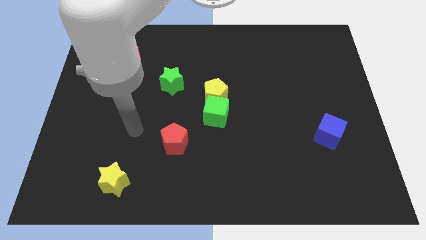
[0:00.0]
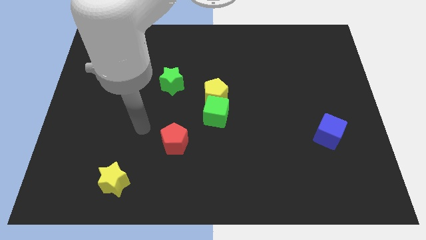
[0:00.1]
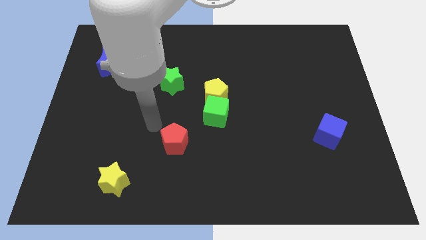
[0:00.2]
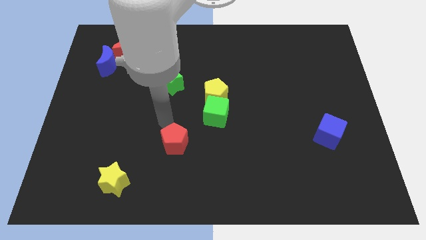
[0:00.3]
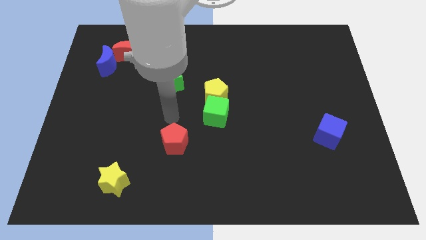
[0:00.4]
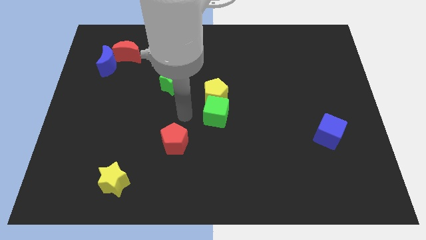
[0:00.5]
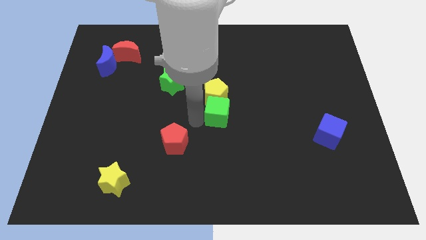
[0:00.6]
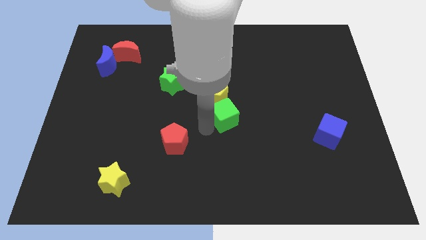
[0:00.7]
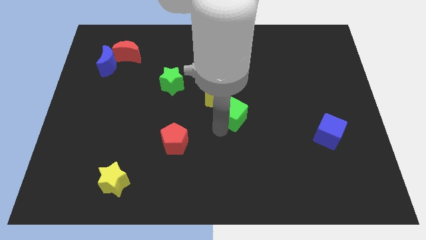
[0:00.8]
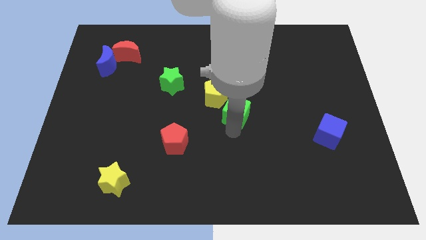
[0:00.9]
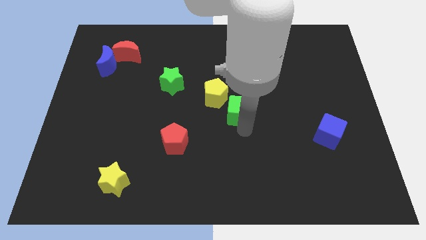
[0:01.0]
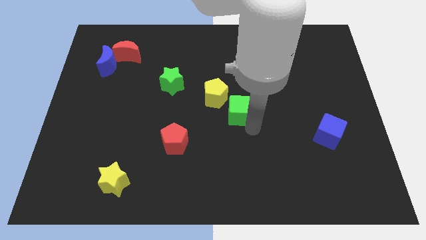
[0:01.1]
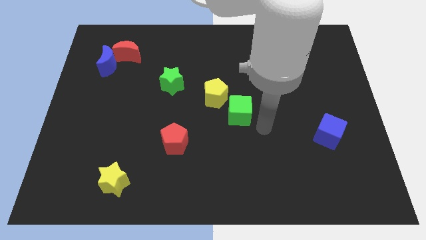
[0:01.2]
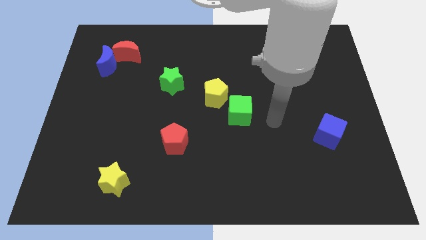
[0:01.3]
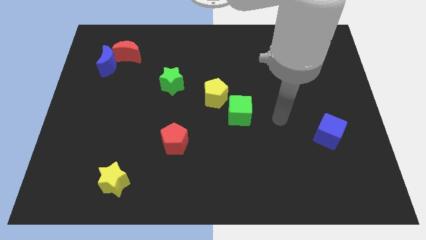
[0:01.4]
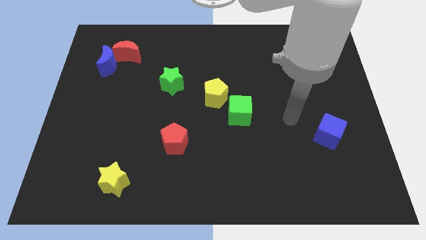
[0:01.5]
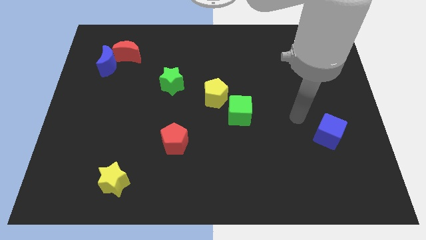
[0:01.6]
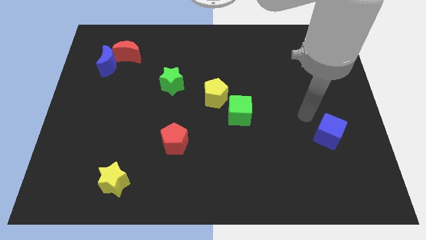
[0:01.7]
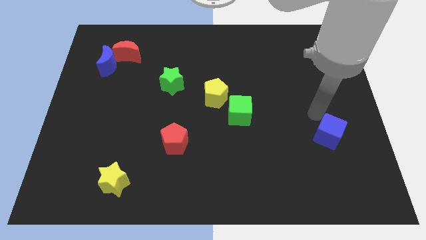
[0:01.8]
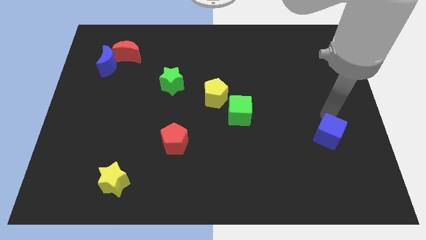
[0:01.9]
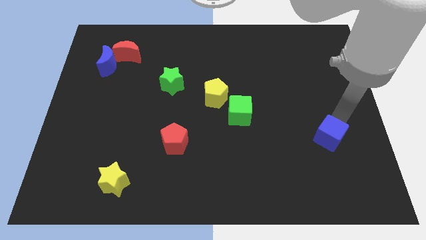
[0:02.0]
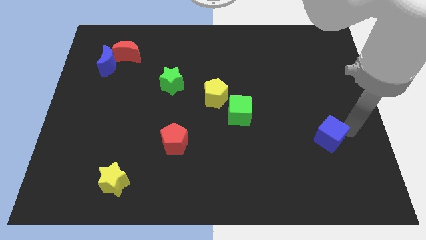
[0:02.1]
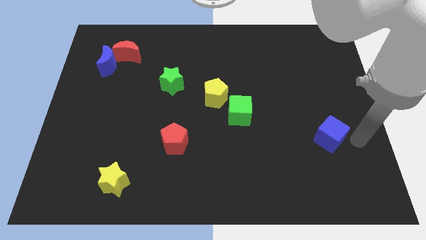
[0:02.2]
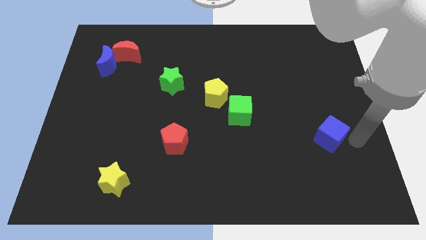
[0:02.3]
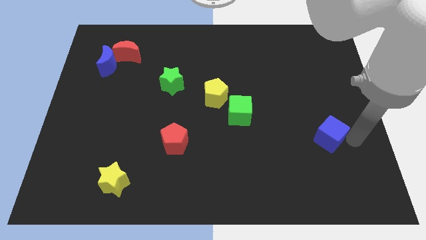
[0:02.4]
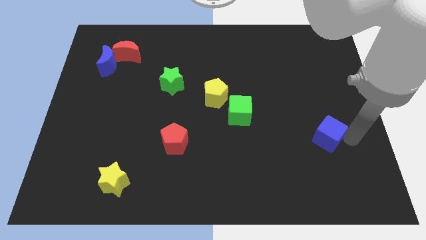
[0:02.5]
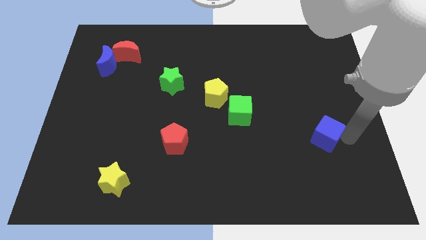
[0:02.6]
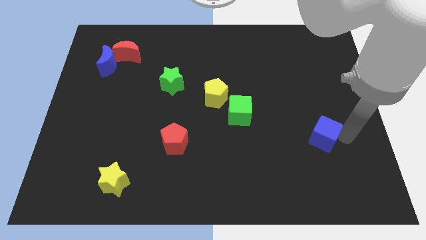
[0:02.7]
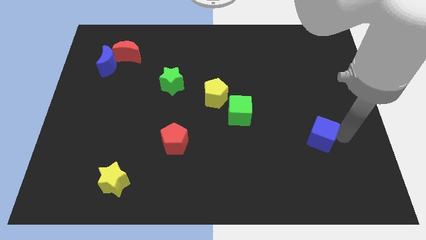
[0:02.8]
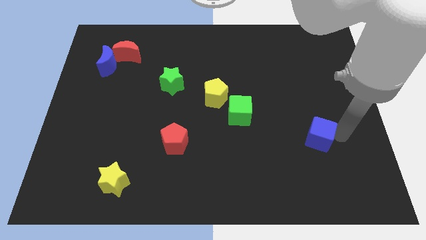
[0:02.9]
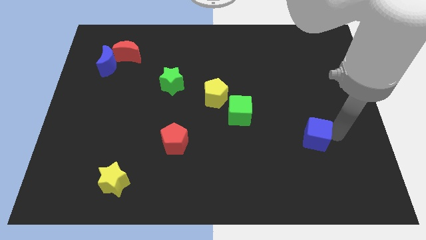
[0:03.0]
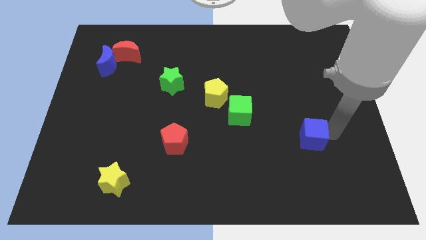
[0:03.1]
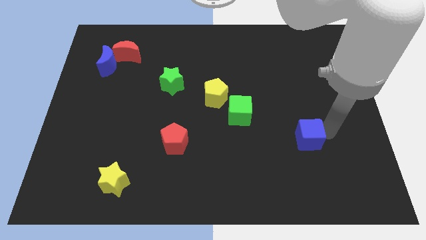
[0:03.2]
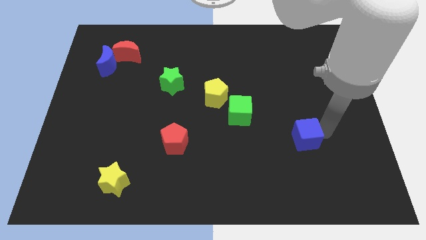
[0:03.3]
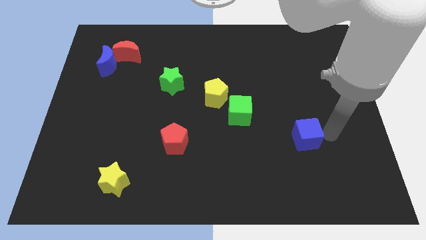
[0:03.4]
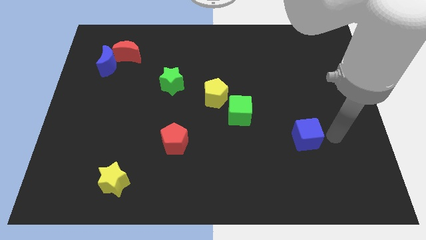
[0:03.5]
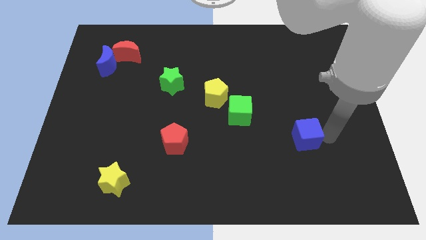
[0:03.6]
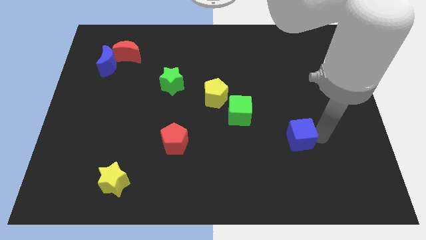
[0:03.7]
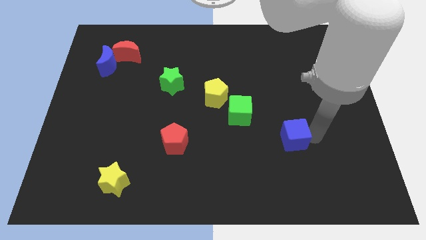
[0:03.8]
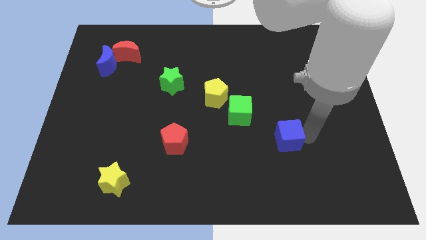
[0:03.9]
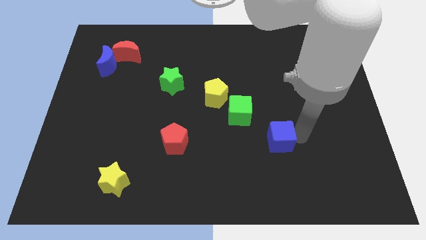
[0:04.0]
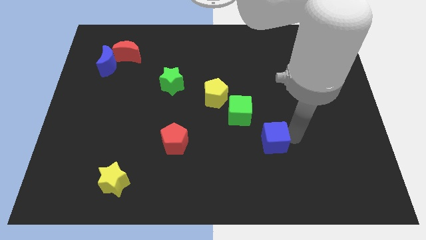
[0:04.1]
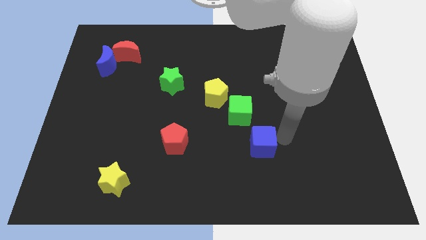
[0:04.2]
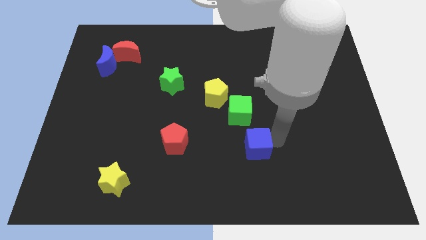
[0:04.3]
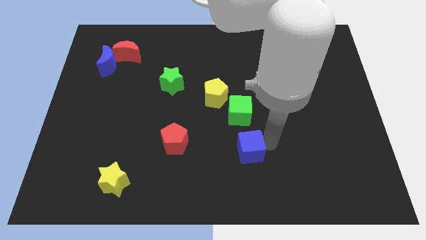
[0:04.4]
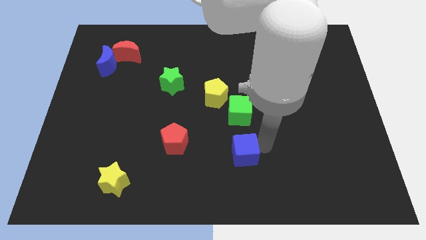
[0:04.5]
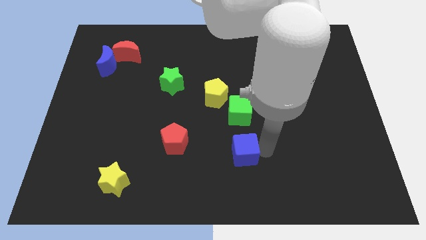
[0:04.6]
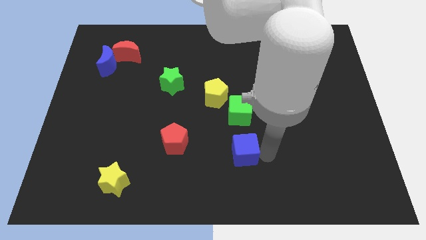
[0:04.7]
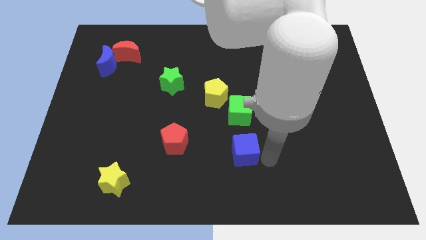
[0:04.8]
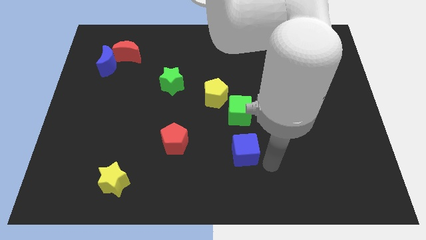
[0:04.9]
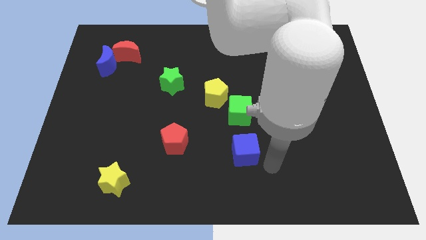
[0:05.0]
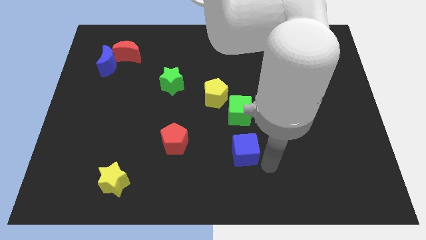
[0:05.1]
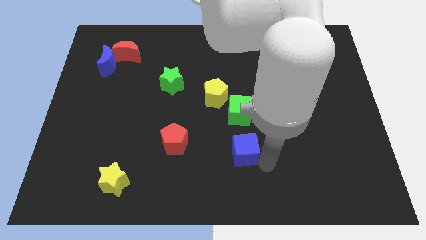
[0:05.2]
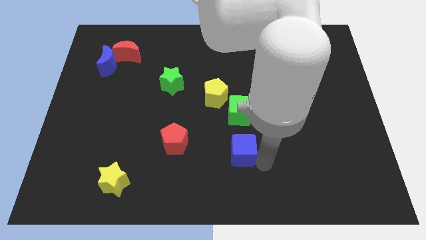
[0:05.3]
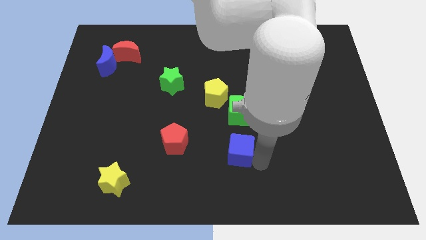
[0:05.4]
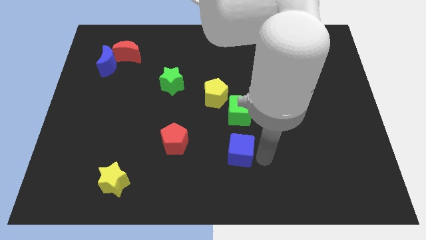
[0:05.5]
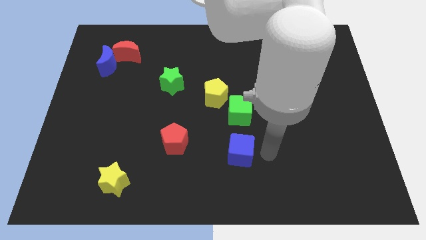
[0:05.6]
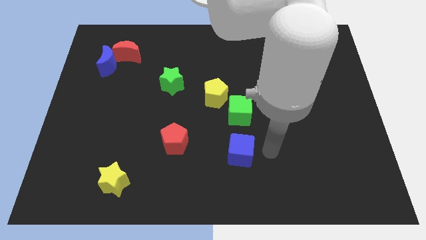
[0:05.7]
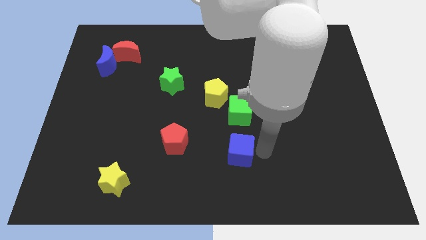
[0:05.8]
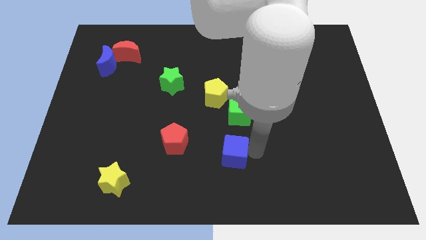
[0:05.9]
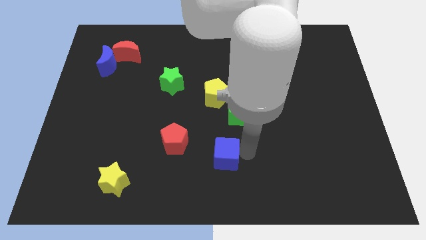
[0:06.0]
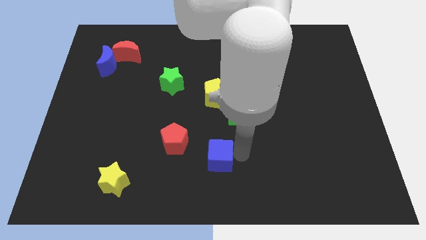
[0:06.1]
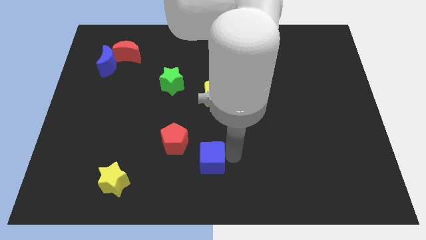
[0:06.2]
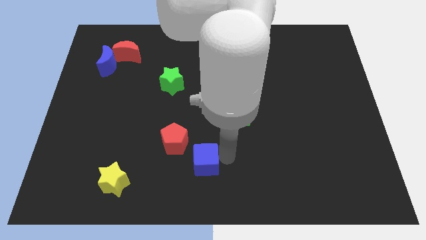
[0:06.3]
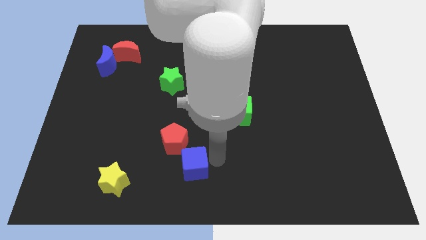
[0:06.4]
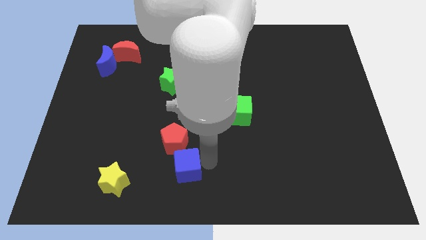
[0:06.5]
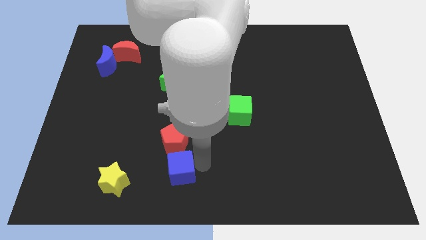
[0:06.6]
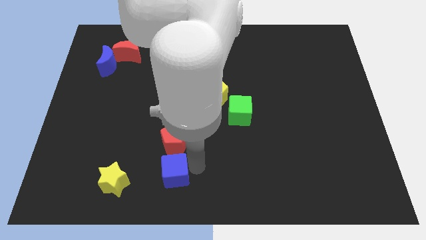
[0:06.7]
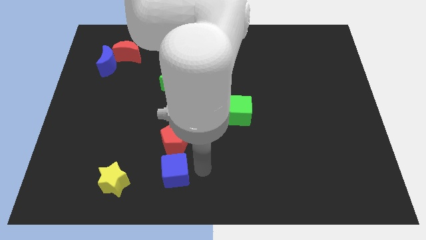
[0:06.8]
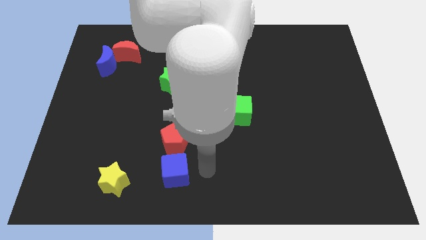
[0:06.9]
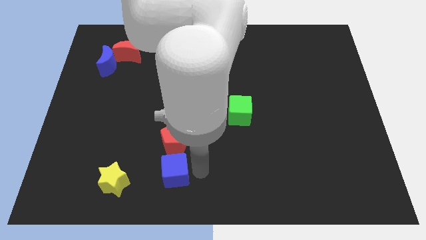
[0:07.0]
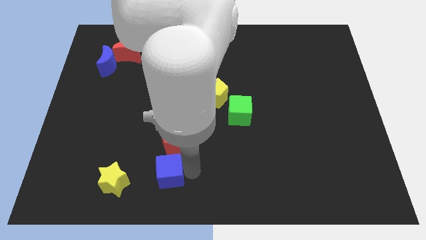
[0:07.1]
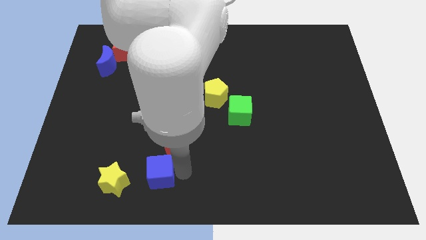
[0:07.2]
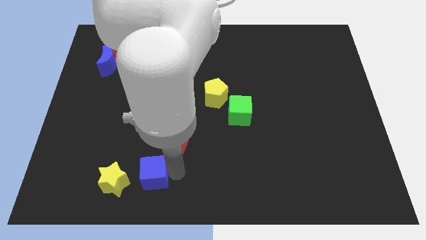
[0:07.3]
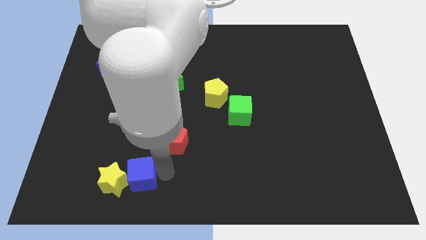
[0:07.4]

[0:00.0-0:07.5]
push the blue cube towards the yellow star
